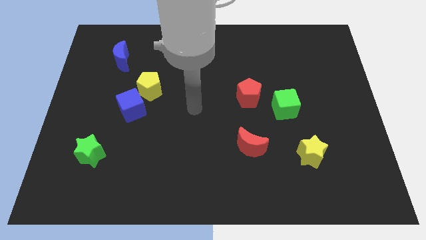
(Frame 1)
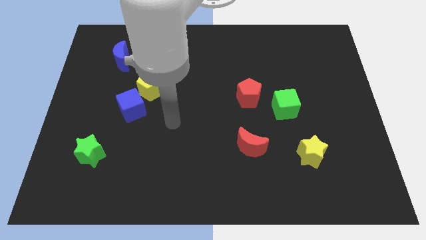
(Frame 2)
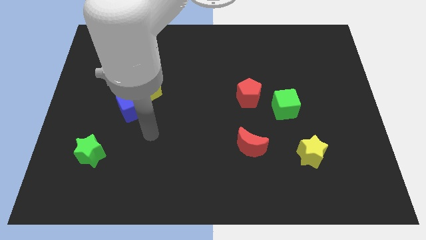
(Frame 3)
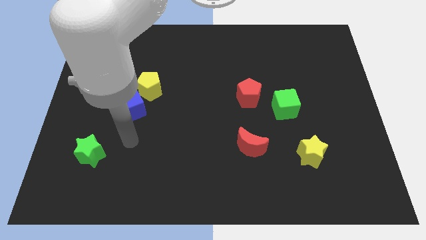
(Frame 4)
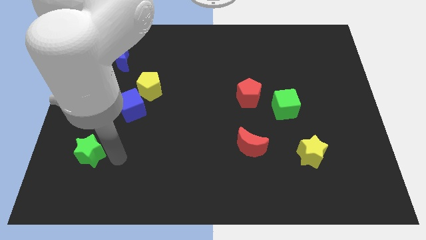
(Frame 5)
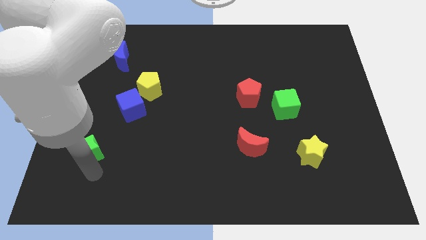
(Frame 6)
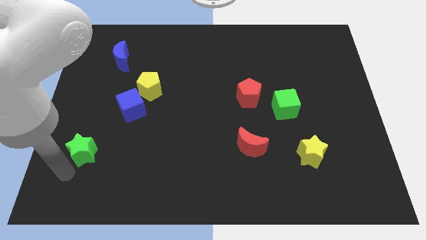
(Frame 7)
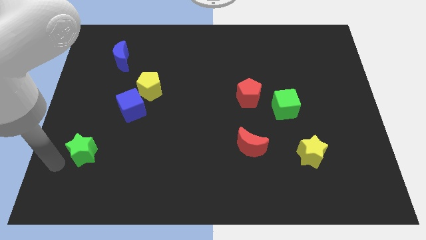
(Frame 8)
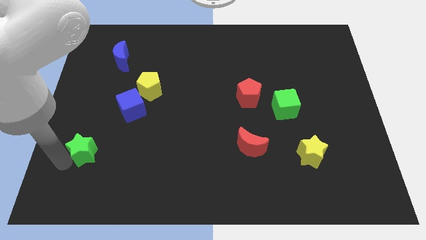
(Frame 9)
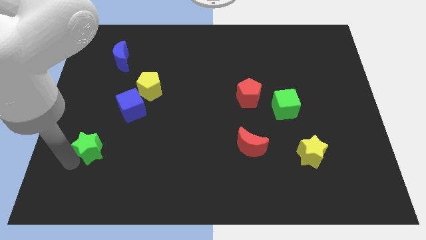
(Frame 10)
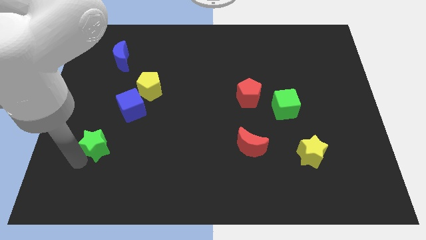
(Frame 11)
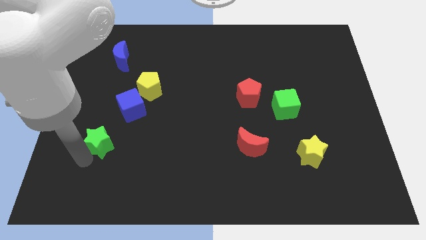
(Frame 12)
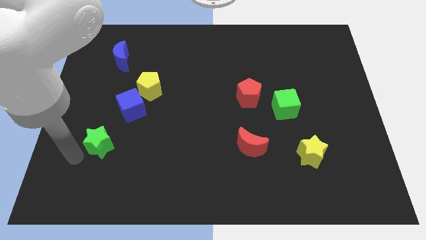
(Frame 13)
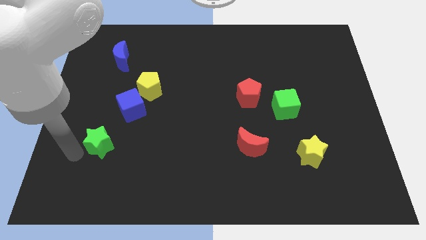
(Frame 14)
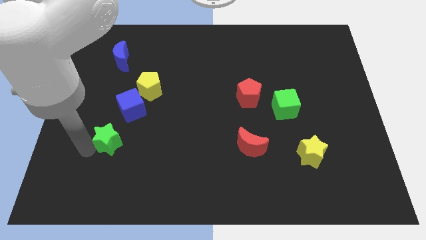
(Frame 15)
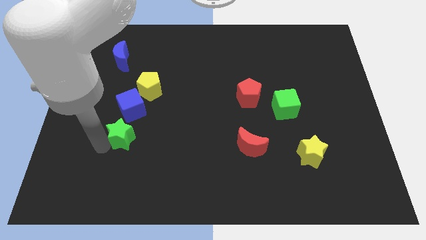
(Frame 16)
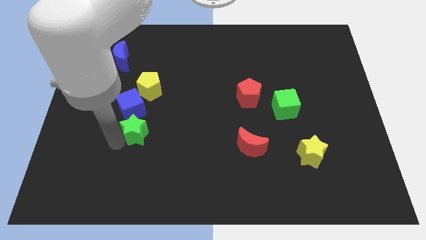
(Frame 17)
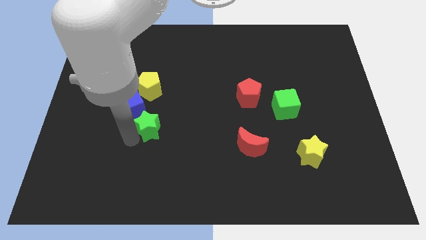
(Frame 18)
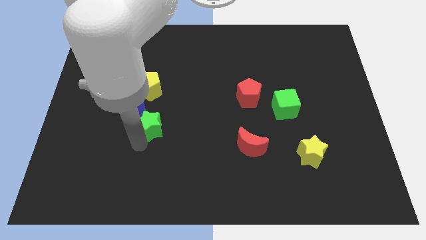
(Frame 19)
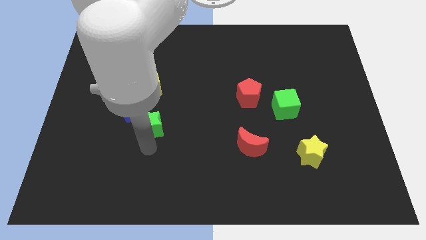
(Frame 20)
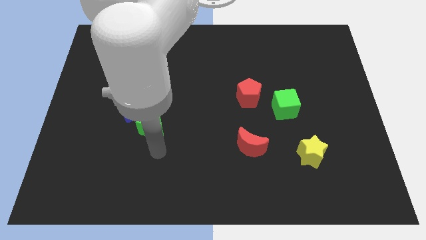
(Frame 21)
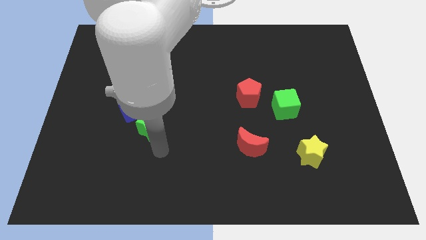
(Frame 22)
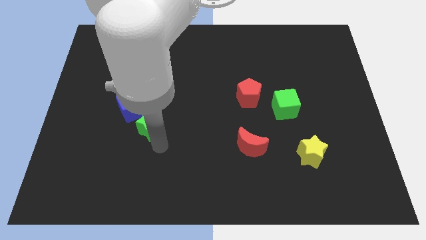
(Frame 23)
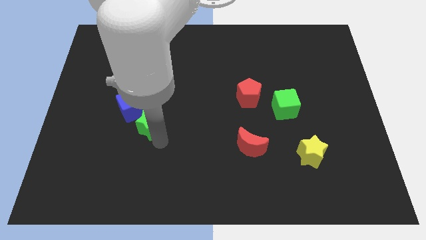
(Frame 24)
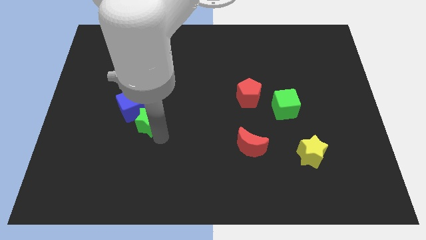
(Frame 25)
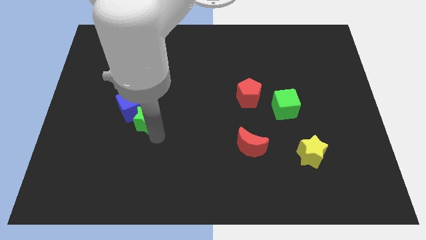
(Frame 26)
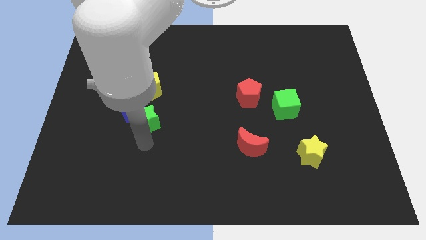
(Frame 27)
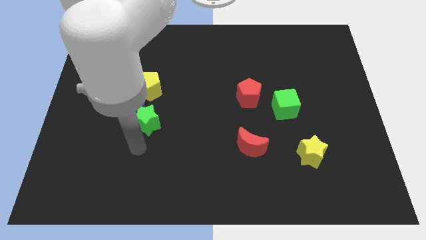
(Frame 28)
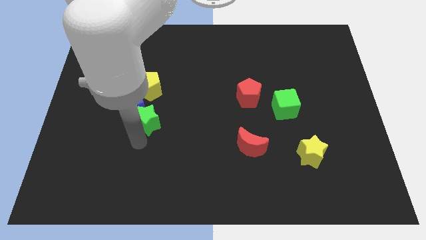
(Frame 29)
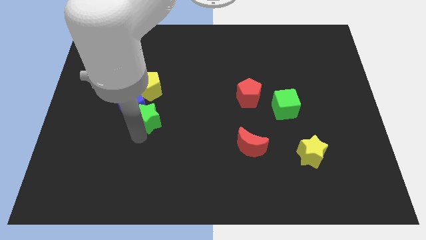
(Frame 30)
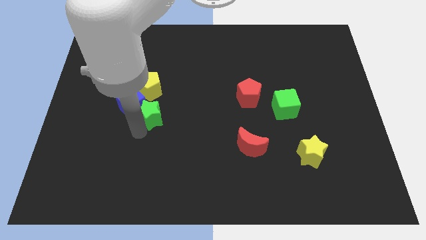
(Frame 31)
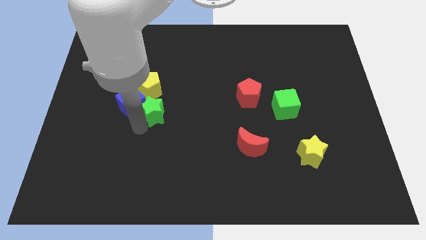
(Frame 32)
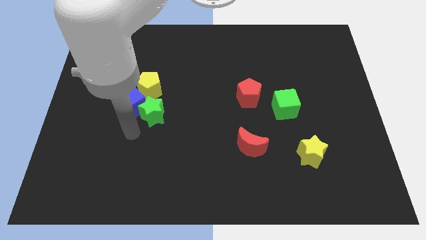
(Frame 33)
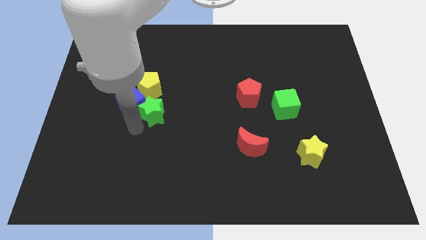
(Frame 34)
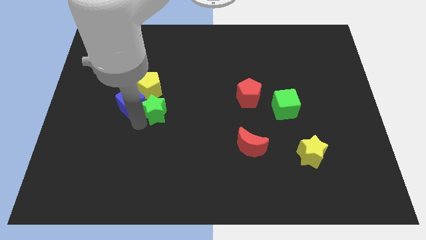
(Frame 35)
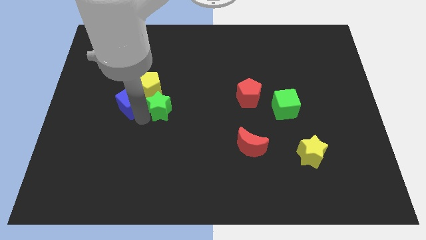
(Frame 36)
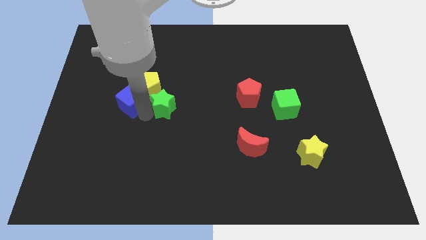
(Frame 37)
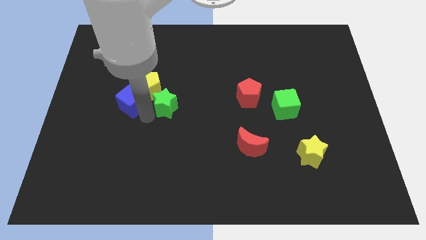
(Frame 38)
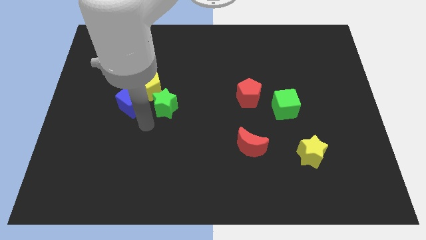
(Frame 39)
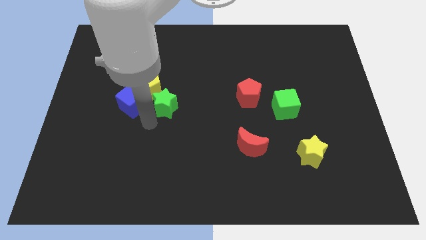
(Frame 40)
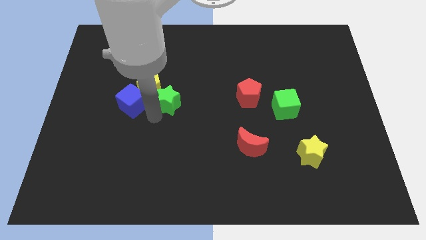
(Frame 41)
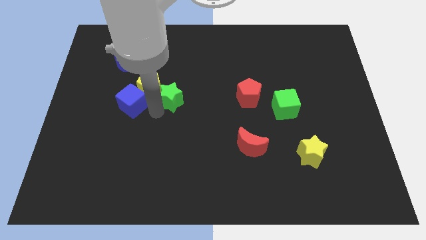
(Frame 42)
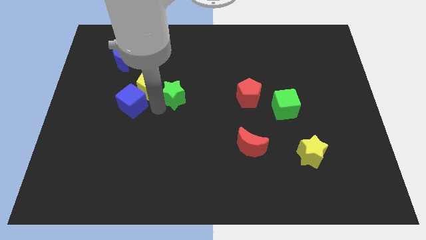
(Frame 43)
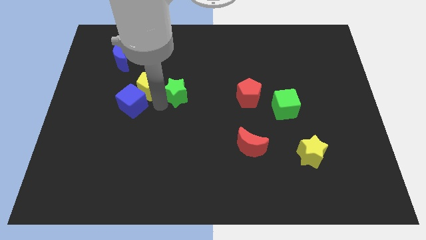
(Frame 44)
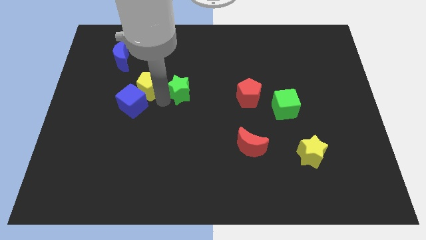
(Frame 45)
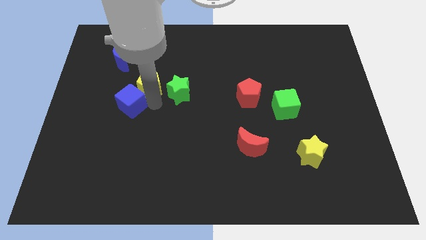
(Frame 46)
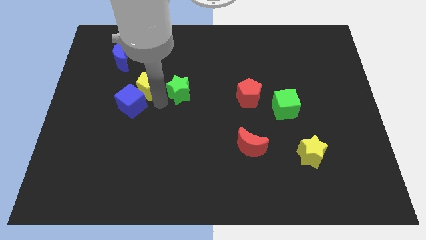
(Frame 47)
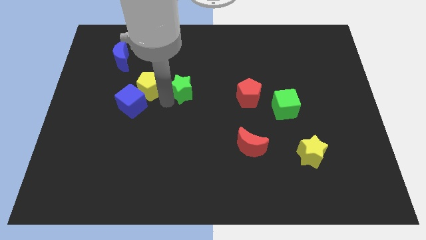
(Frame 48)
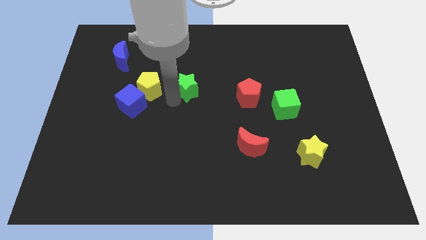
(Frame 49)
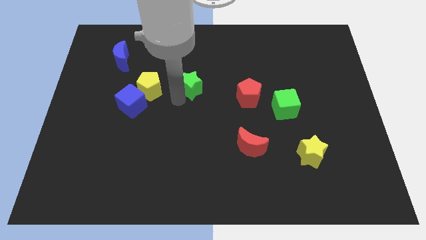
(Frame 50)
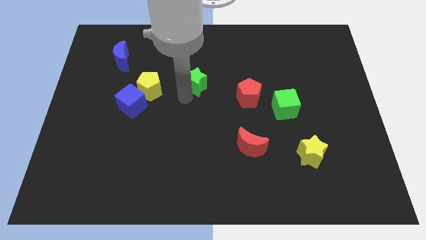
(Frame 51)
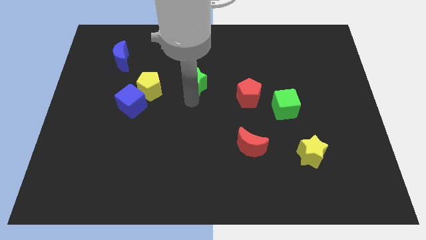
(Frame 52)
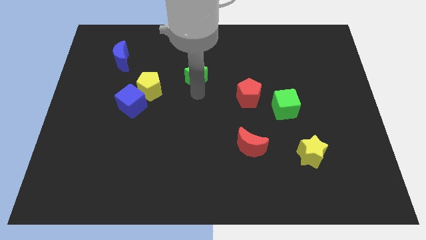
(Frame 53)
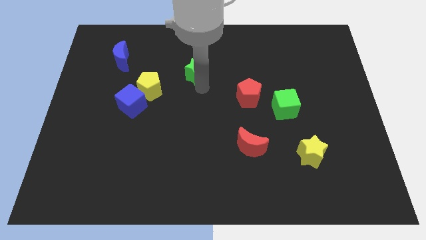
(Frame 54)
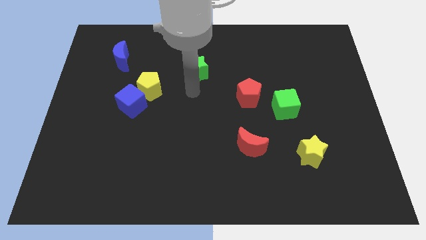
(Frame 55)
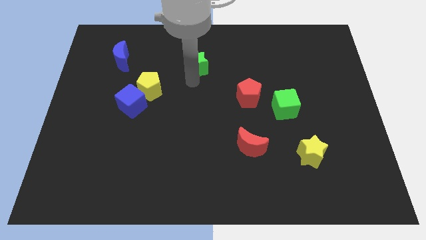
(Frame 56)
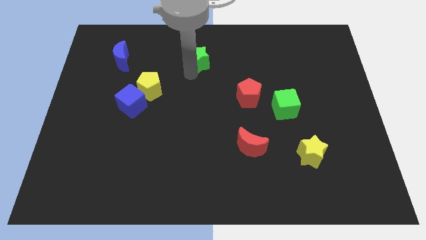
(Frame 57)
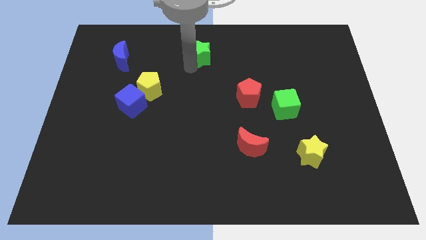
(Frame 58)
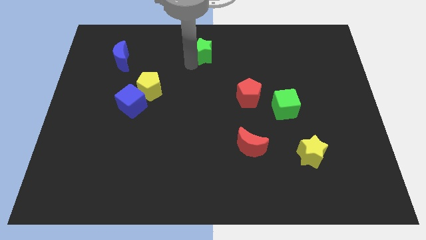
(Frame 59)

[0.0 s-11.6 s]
slide the green star to the top side
